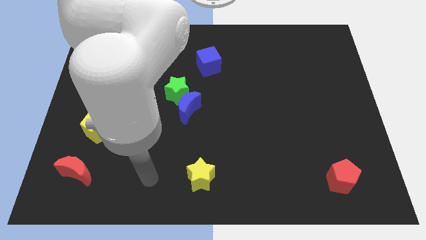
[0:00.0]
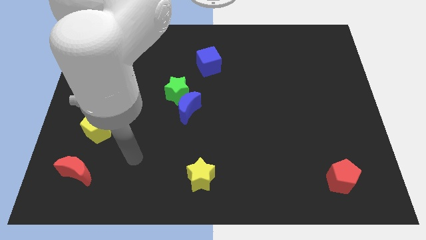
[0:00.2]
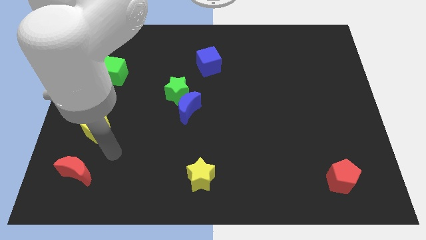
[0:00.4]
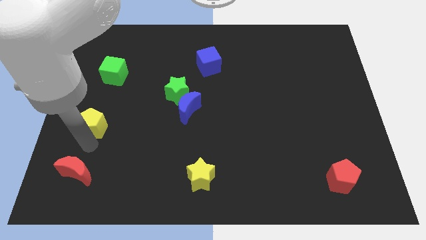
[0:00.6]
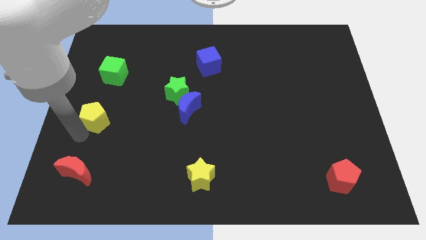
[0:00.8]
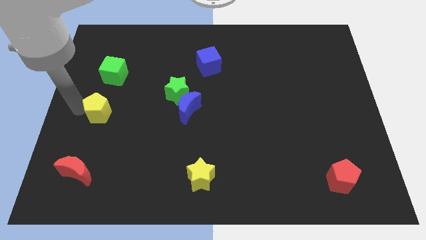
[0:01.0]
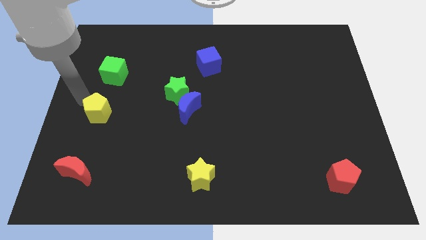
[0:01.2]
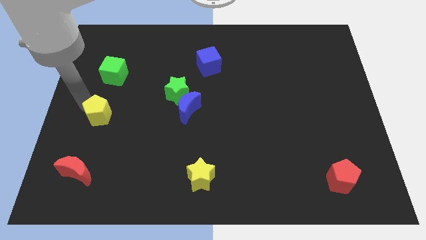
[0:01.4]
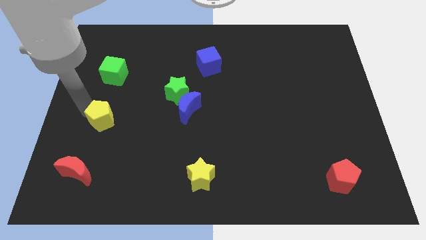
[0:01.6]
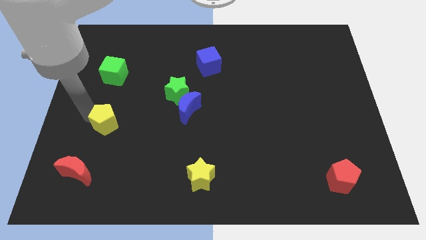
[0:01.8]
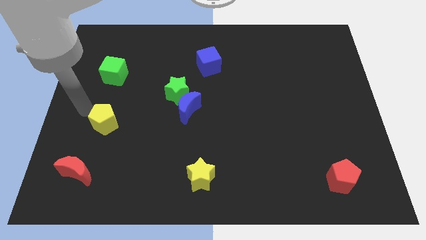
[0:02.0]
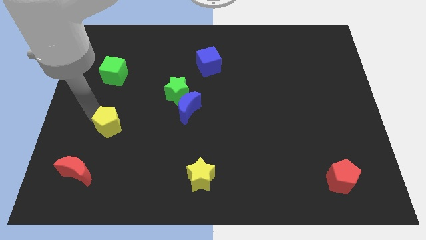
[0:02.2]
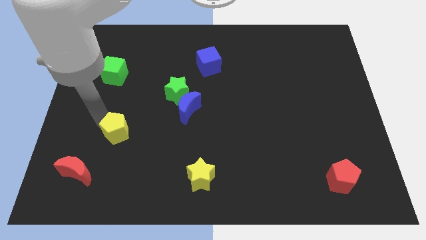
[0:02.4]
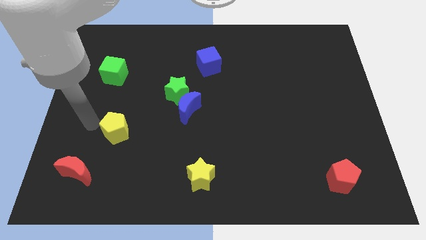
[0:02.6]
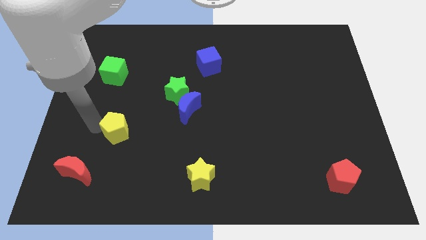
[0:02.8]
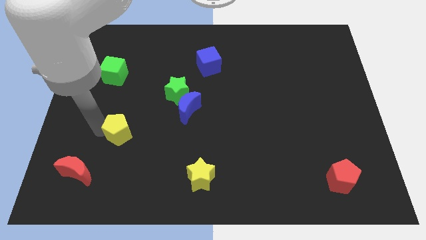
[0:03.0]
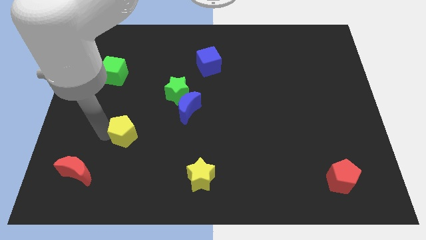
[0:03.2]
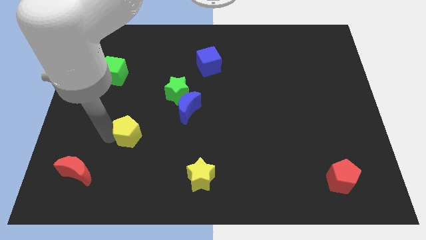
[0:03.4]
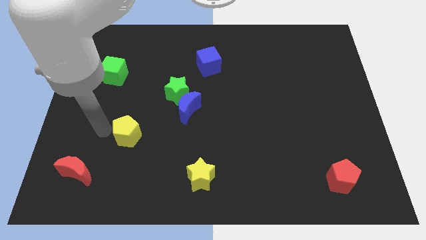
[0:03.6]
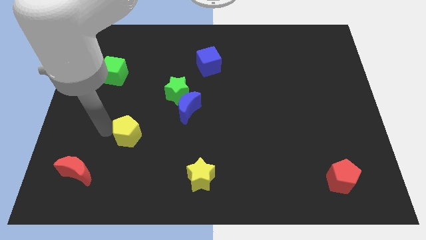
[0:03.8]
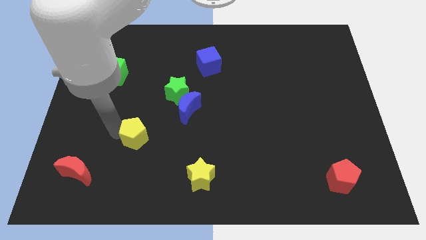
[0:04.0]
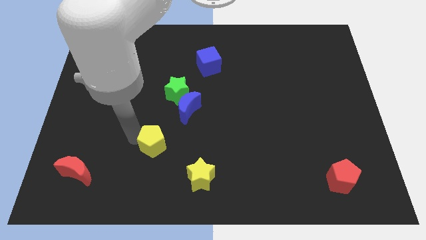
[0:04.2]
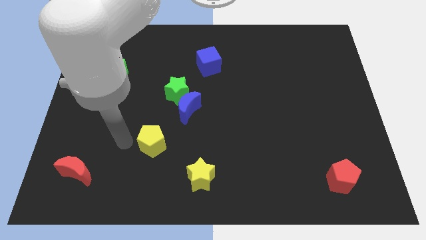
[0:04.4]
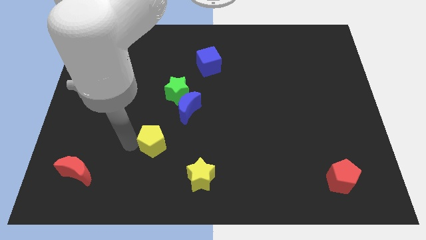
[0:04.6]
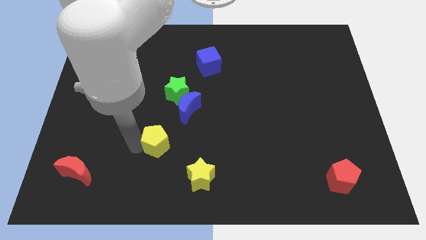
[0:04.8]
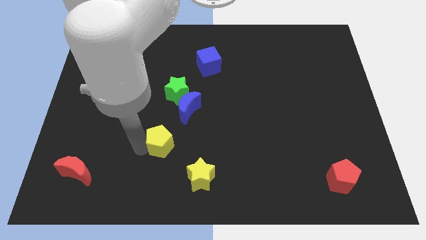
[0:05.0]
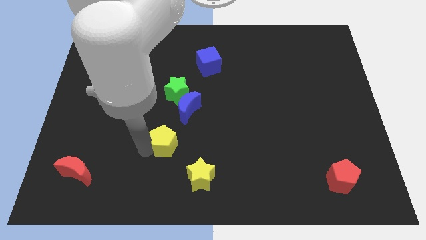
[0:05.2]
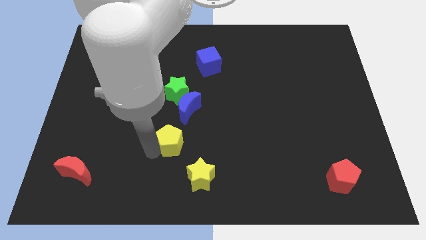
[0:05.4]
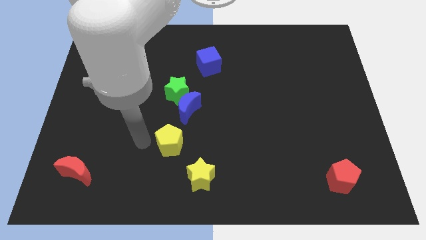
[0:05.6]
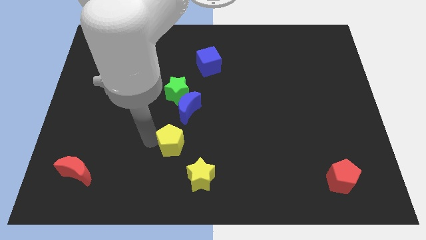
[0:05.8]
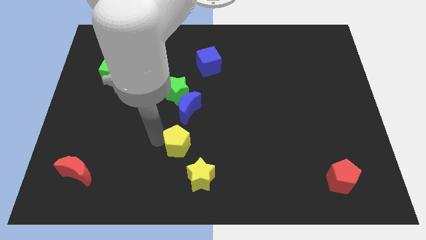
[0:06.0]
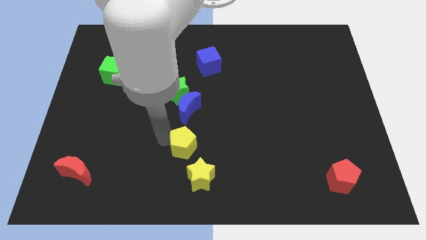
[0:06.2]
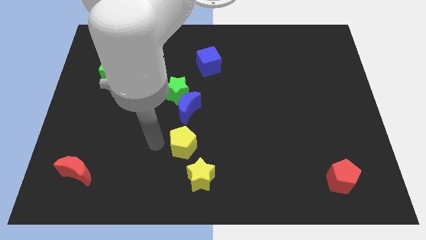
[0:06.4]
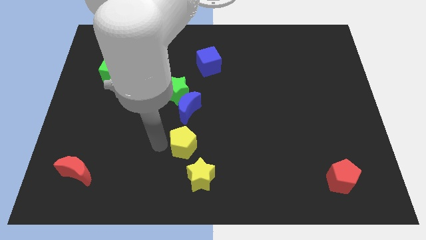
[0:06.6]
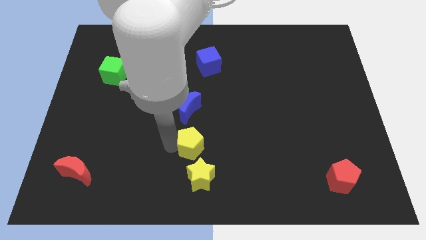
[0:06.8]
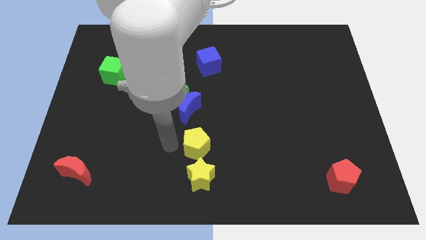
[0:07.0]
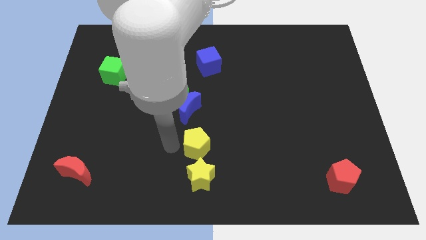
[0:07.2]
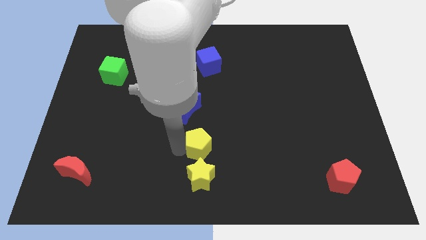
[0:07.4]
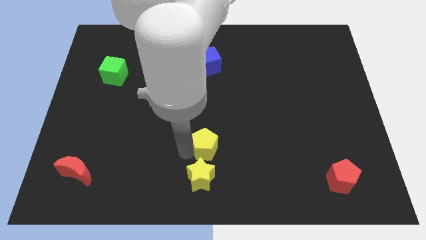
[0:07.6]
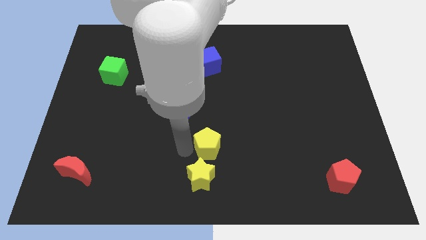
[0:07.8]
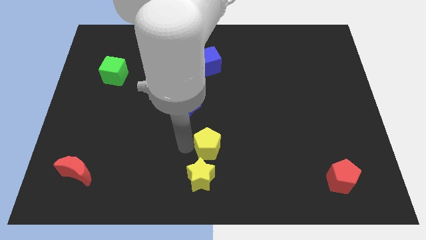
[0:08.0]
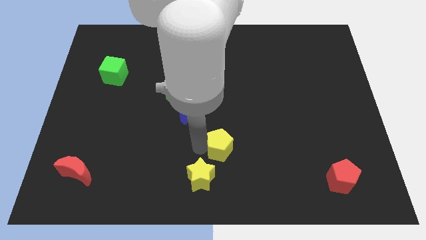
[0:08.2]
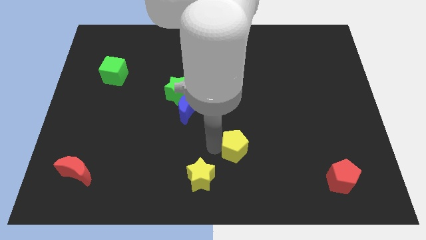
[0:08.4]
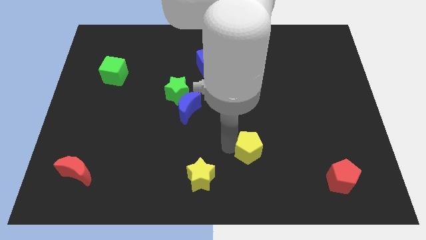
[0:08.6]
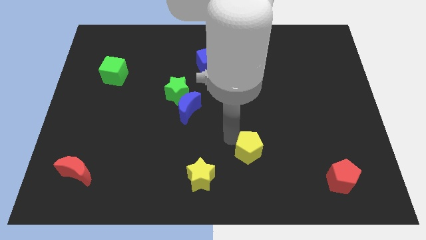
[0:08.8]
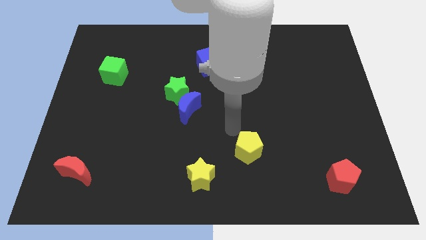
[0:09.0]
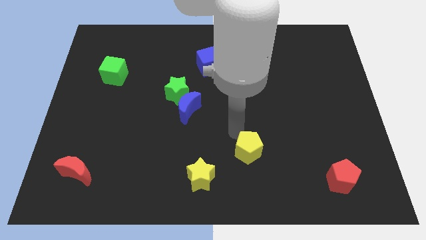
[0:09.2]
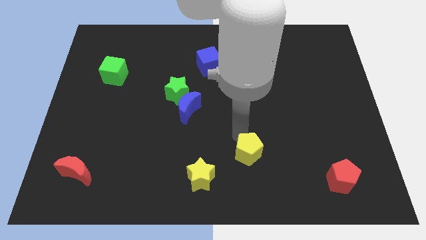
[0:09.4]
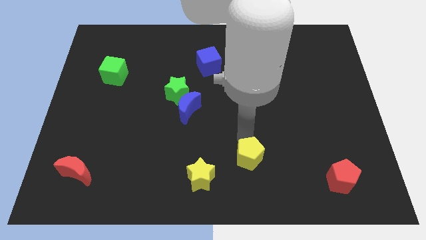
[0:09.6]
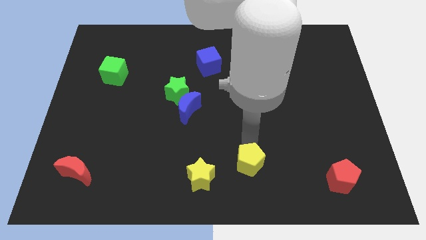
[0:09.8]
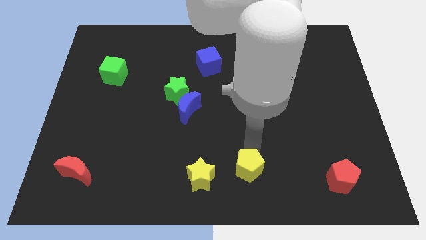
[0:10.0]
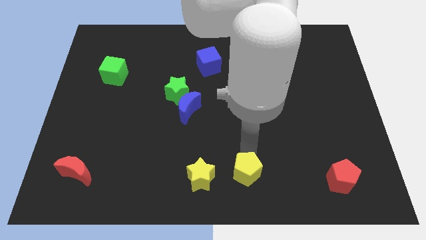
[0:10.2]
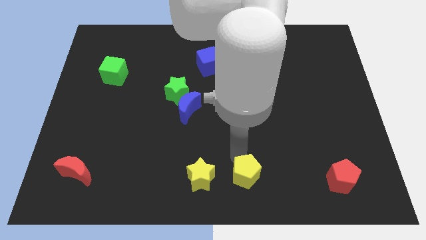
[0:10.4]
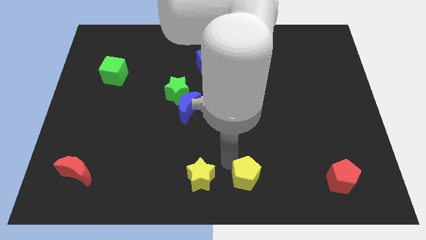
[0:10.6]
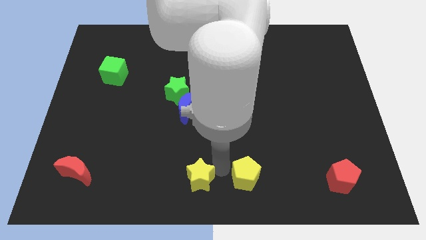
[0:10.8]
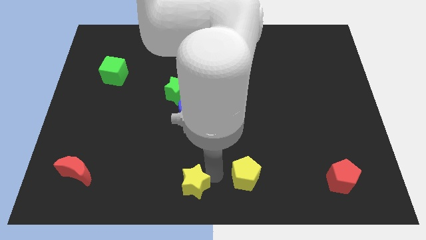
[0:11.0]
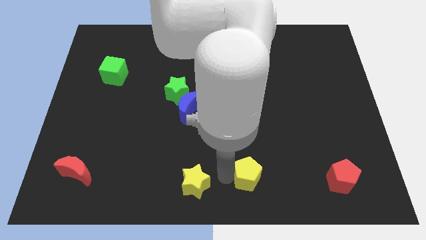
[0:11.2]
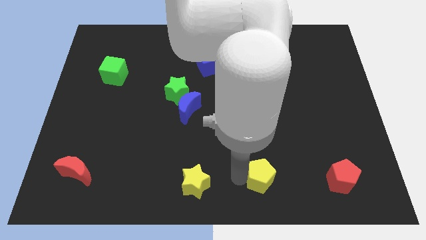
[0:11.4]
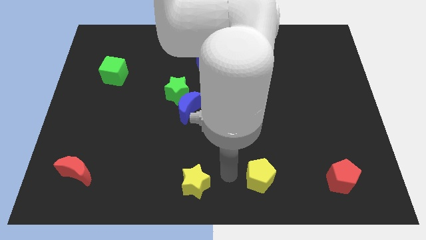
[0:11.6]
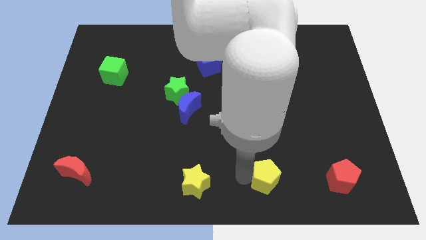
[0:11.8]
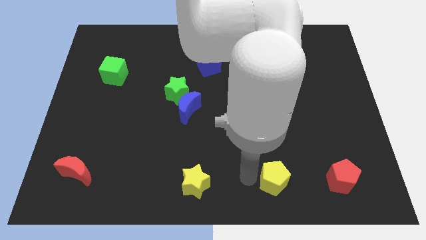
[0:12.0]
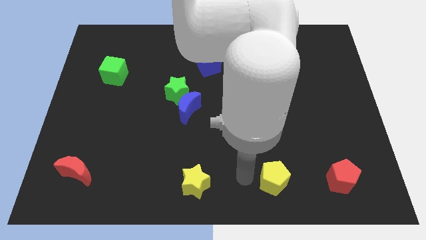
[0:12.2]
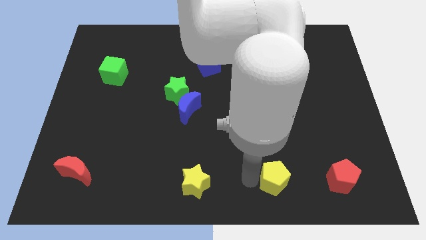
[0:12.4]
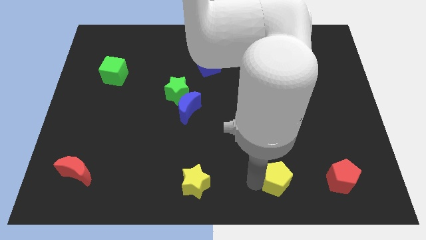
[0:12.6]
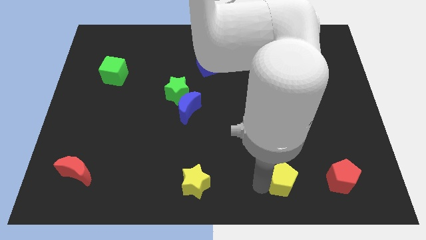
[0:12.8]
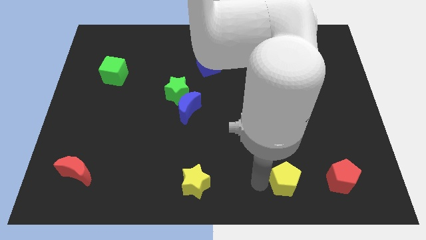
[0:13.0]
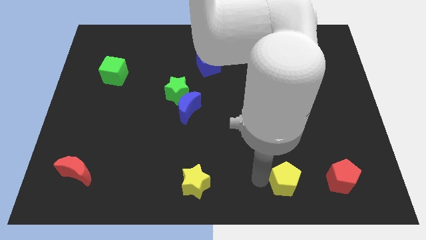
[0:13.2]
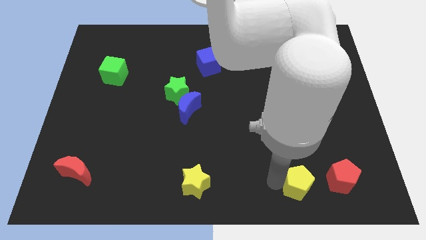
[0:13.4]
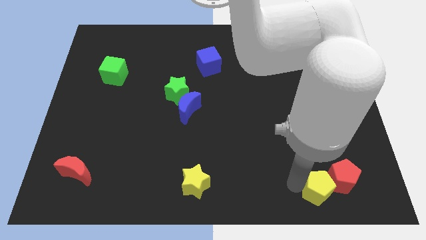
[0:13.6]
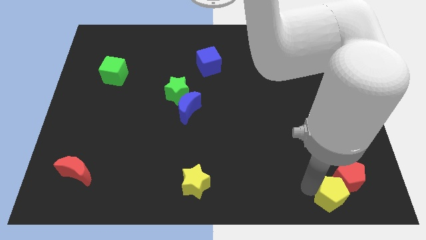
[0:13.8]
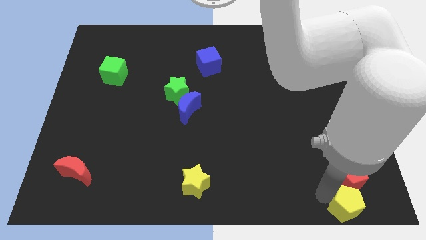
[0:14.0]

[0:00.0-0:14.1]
put the yellow pentagon to the bottom right corner
